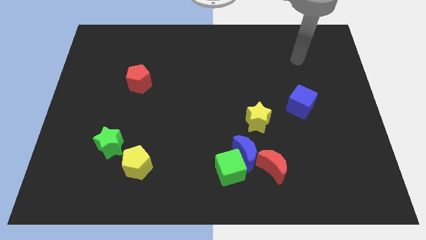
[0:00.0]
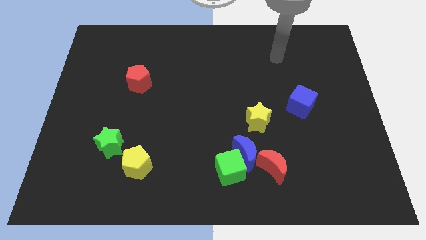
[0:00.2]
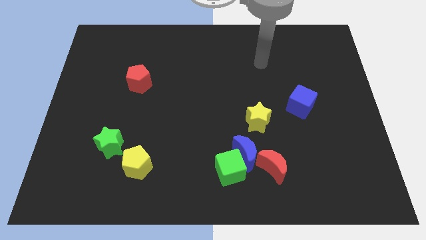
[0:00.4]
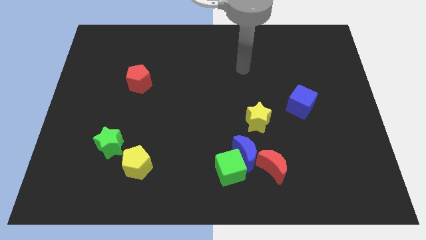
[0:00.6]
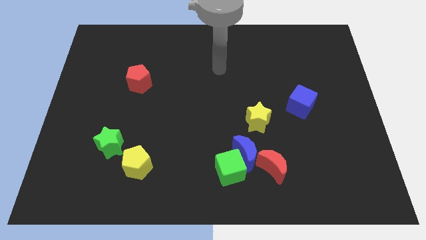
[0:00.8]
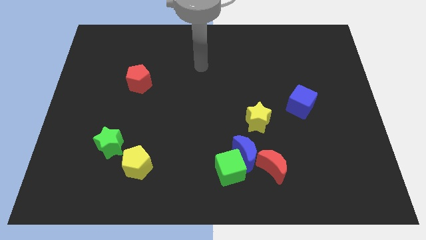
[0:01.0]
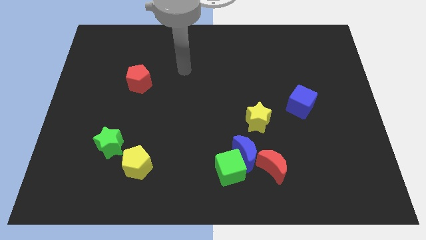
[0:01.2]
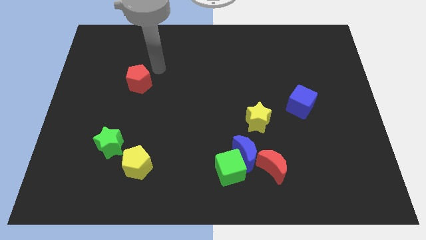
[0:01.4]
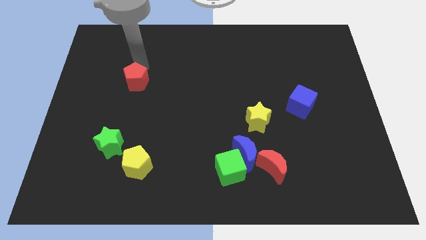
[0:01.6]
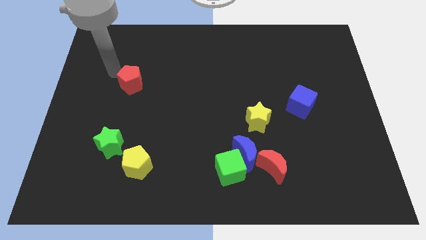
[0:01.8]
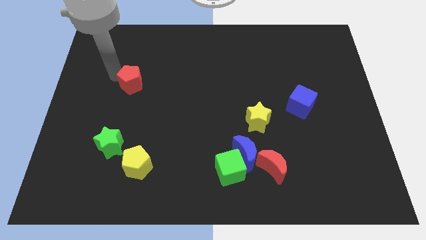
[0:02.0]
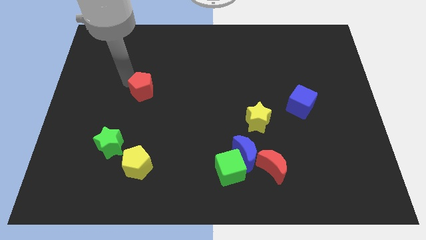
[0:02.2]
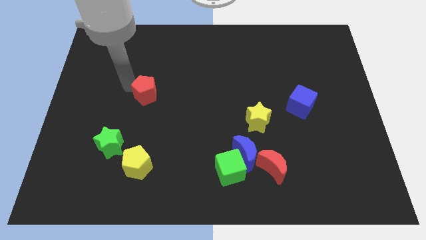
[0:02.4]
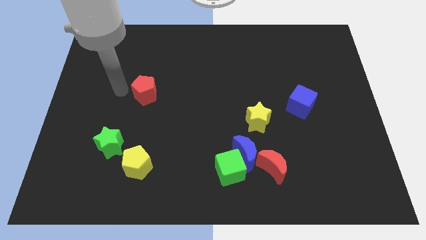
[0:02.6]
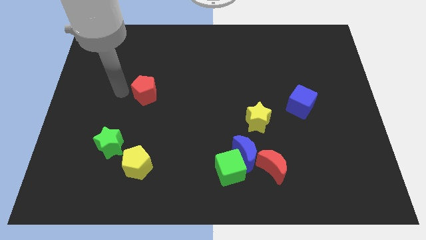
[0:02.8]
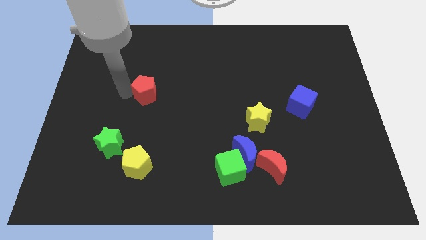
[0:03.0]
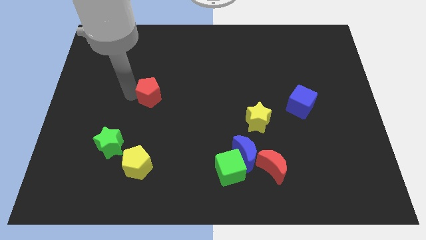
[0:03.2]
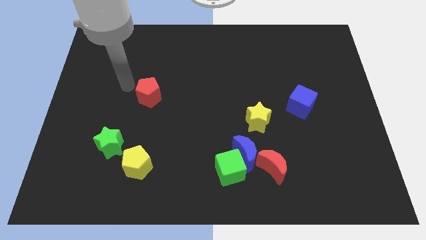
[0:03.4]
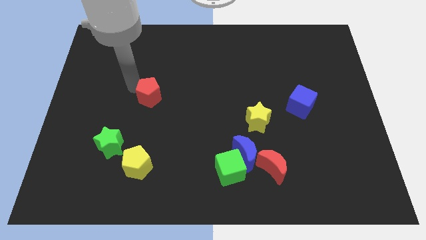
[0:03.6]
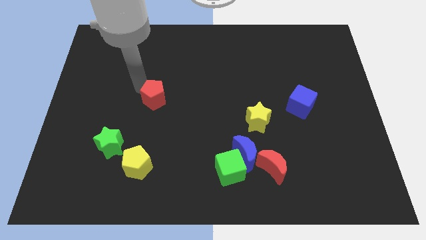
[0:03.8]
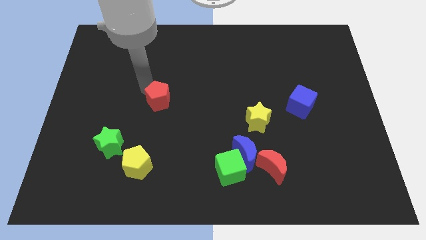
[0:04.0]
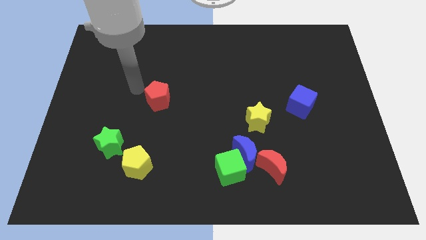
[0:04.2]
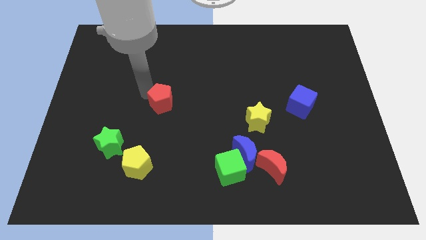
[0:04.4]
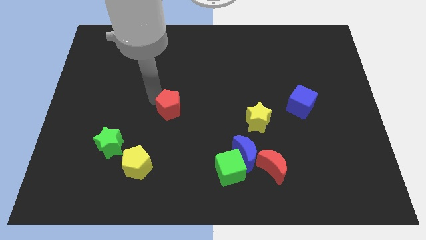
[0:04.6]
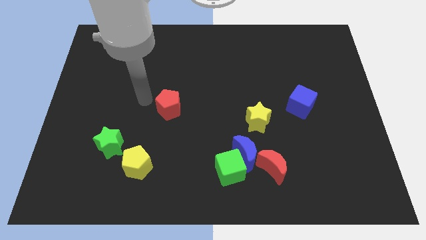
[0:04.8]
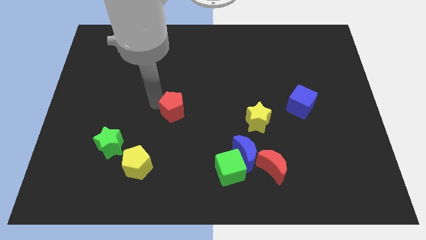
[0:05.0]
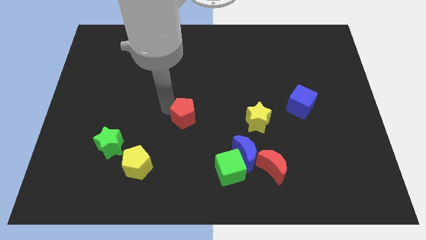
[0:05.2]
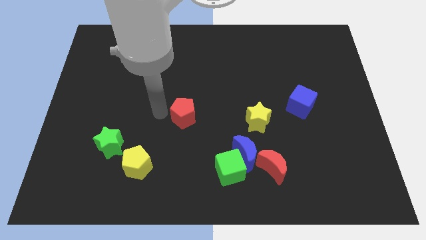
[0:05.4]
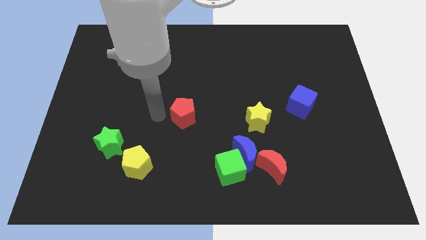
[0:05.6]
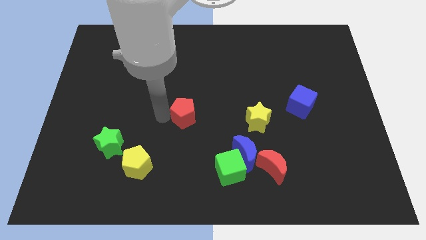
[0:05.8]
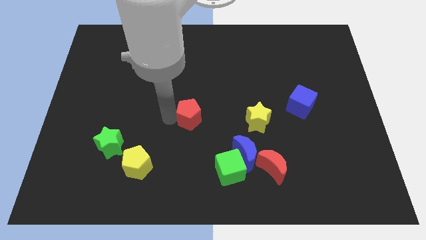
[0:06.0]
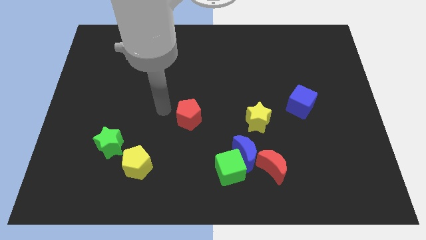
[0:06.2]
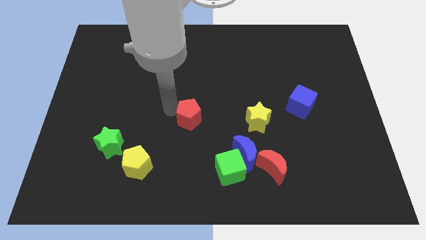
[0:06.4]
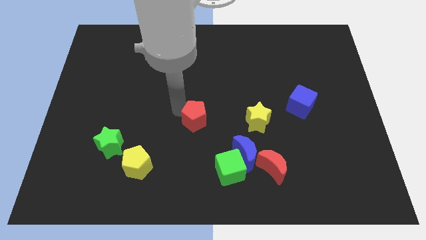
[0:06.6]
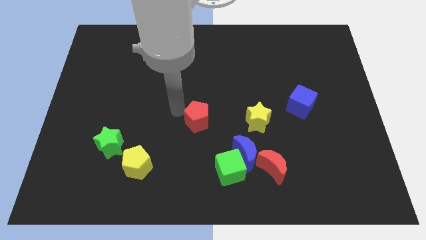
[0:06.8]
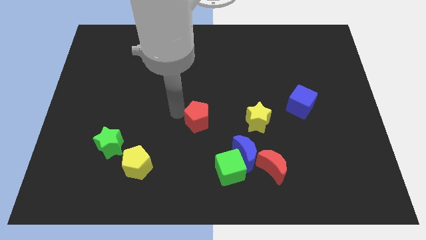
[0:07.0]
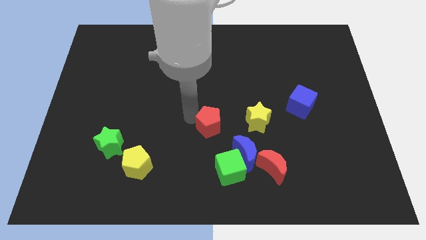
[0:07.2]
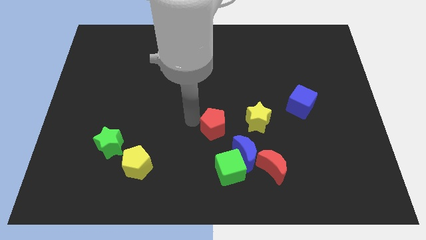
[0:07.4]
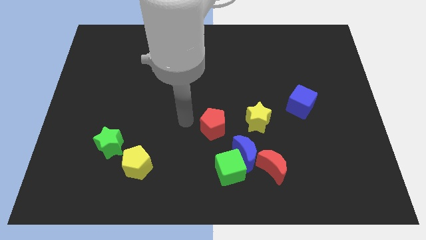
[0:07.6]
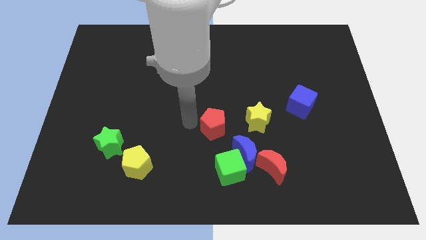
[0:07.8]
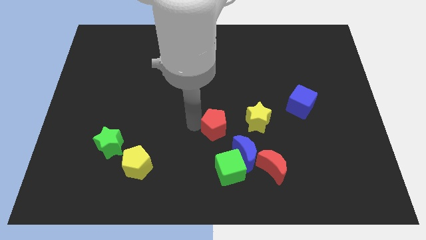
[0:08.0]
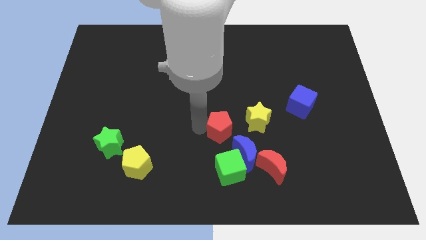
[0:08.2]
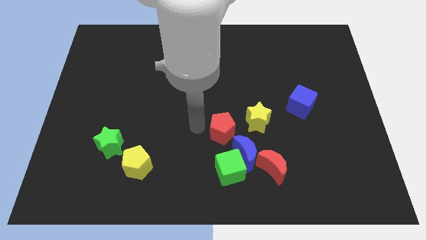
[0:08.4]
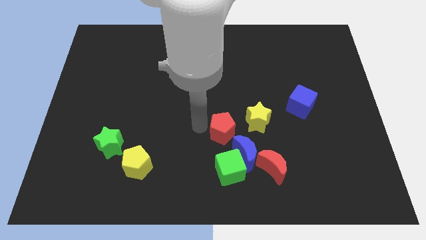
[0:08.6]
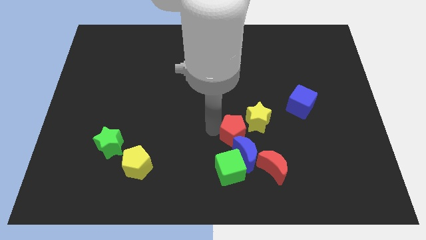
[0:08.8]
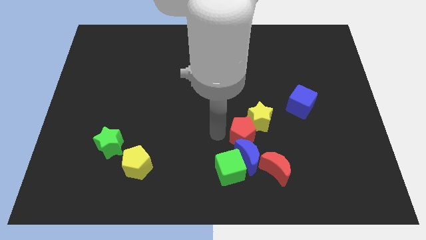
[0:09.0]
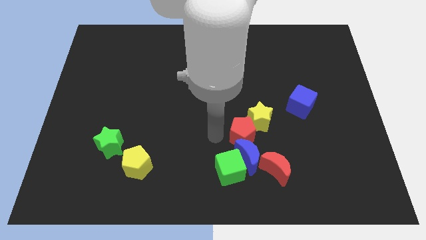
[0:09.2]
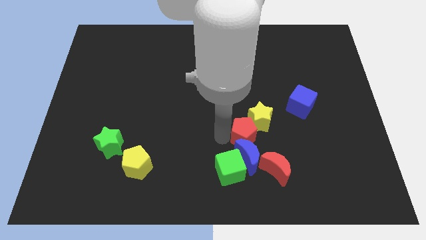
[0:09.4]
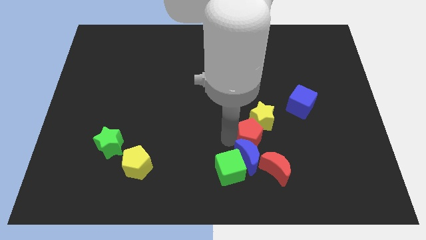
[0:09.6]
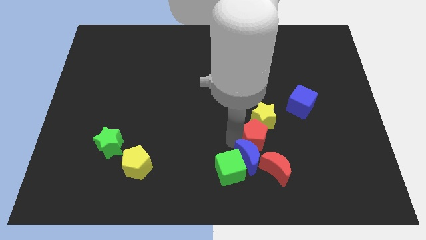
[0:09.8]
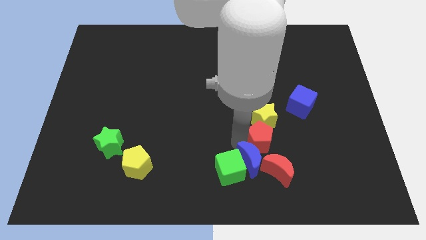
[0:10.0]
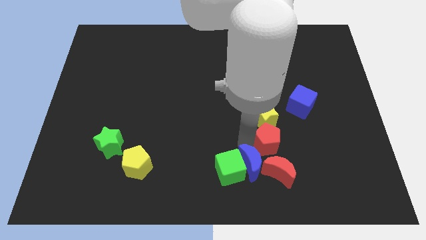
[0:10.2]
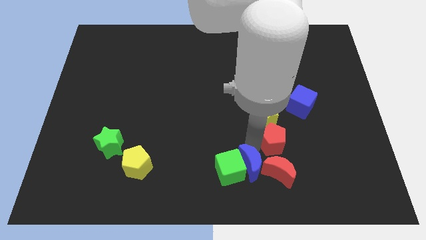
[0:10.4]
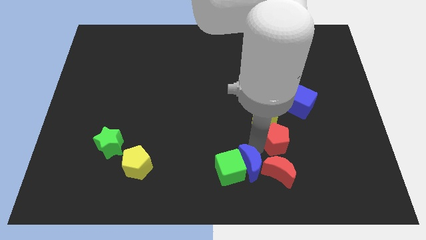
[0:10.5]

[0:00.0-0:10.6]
push the red pentagon diagonally down and to the left of the blue cube

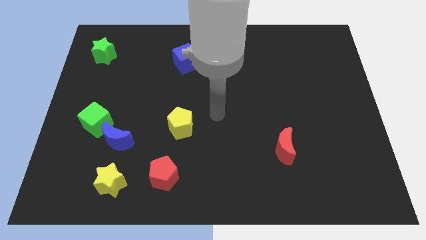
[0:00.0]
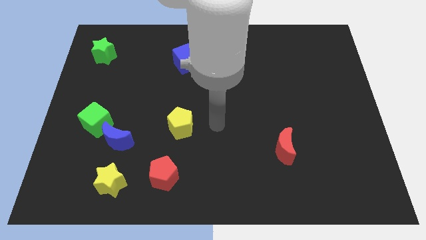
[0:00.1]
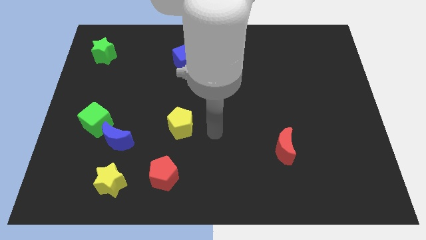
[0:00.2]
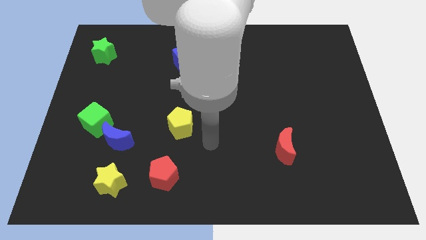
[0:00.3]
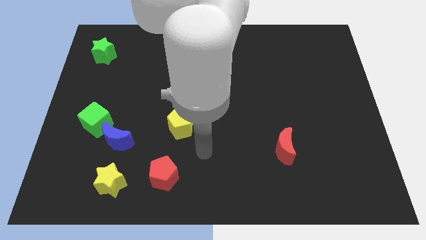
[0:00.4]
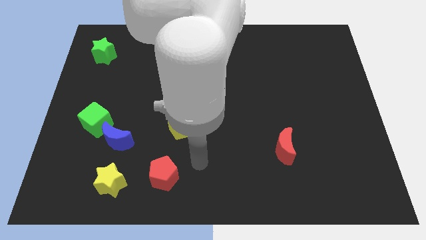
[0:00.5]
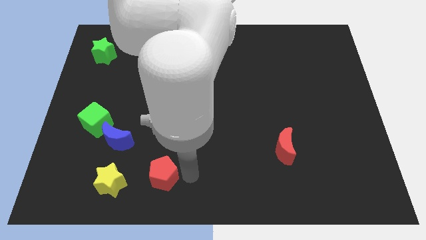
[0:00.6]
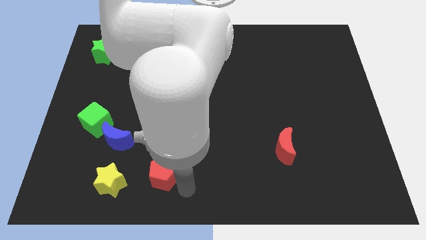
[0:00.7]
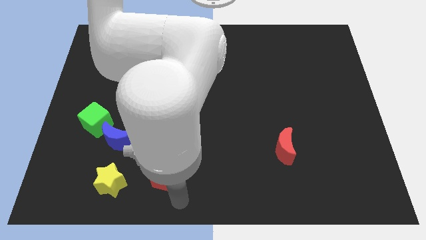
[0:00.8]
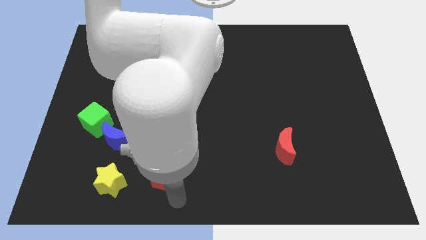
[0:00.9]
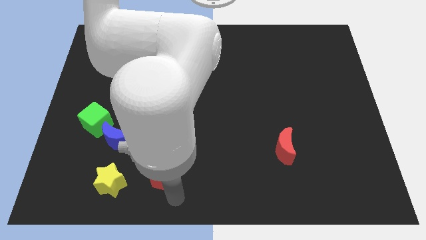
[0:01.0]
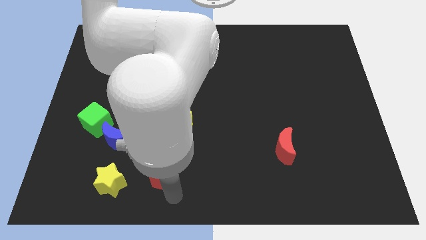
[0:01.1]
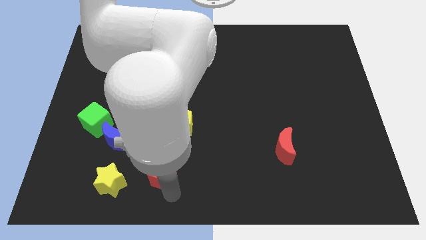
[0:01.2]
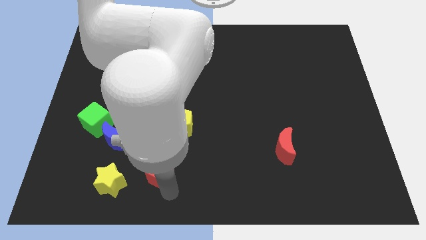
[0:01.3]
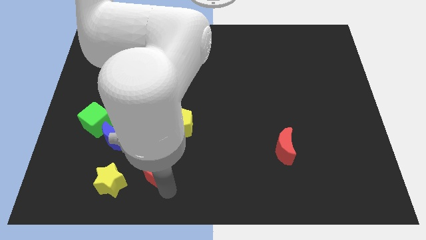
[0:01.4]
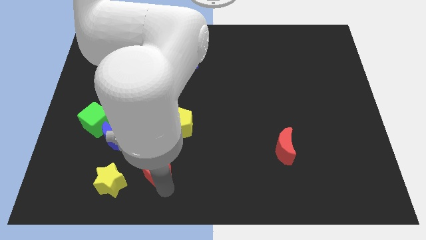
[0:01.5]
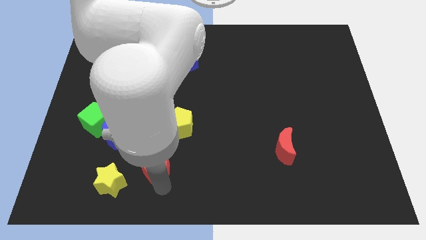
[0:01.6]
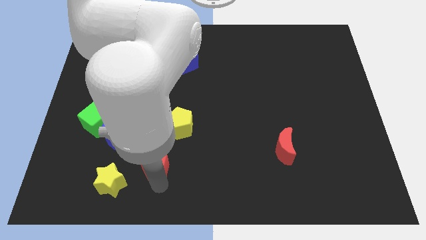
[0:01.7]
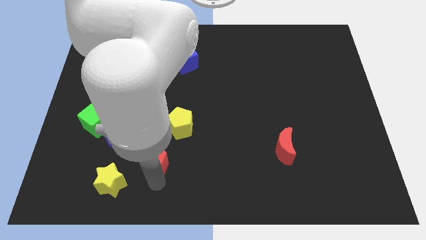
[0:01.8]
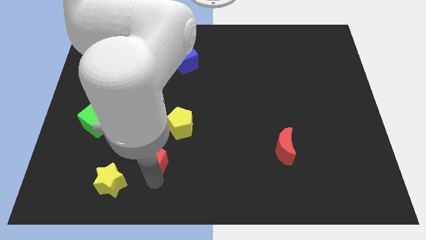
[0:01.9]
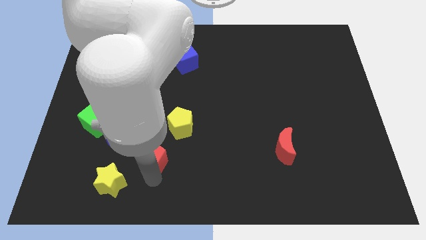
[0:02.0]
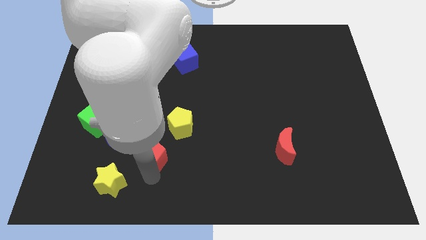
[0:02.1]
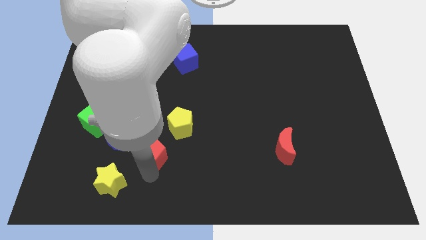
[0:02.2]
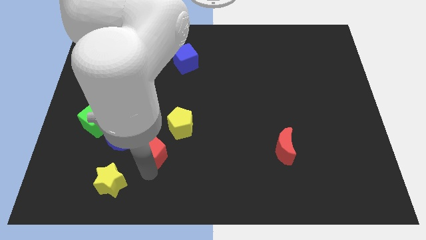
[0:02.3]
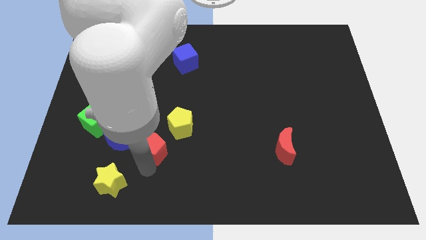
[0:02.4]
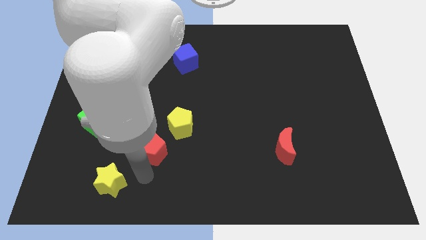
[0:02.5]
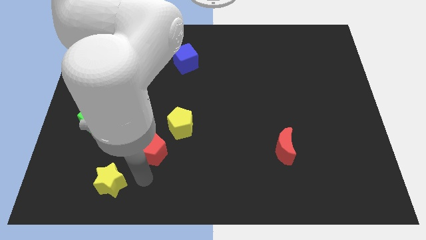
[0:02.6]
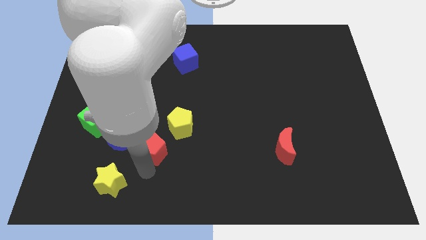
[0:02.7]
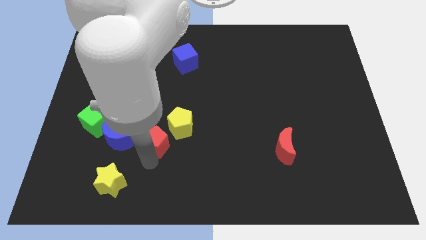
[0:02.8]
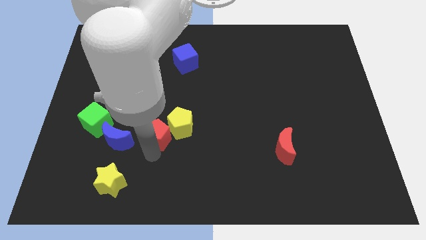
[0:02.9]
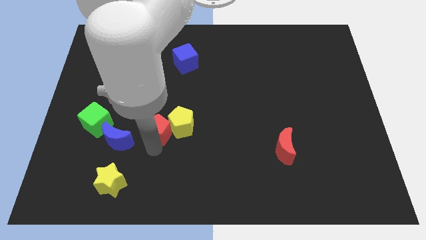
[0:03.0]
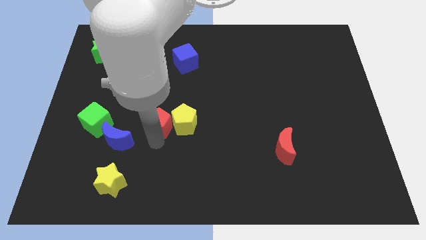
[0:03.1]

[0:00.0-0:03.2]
move the red pentagon to the top left side of the yellow pentagon
